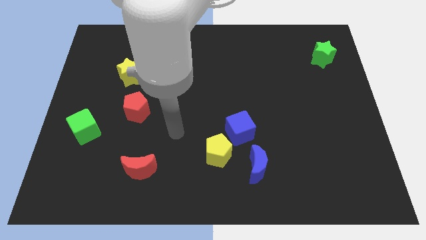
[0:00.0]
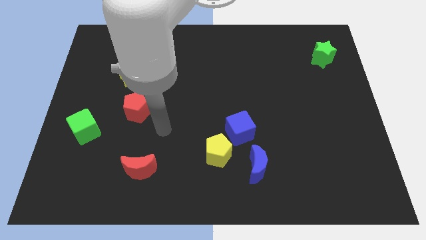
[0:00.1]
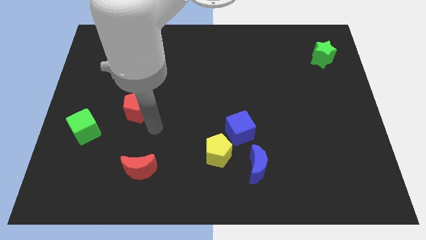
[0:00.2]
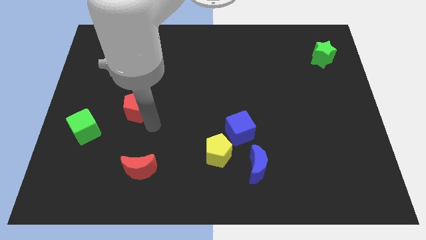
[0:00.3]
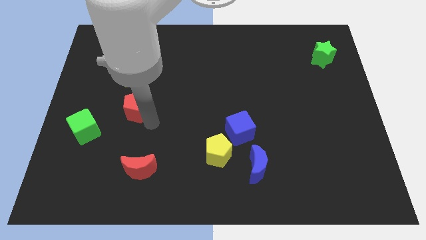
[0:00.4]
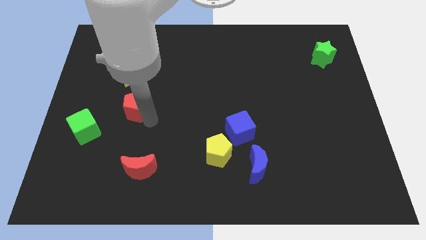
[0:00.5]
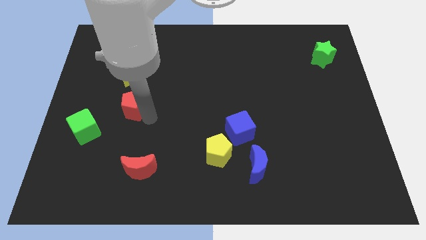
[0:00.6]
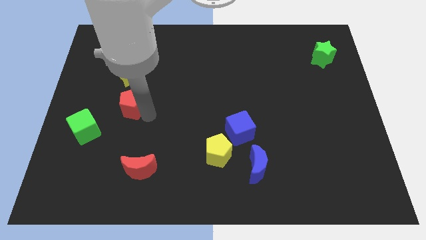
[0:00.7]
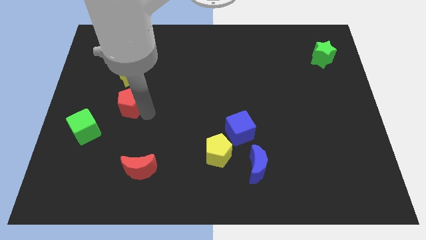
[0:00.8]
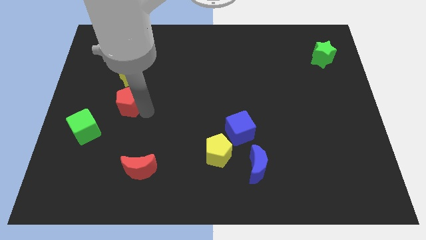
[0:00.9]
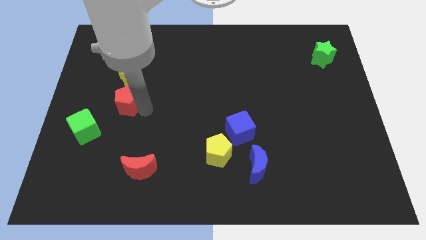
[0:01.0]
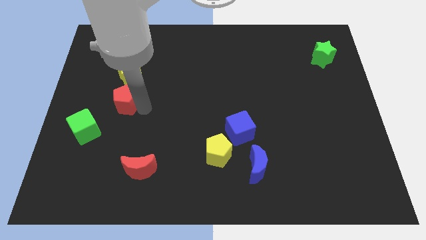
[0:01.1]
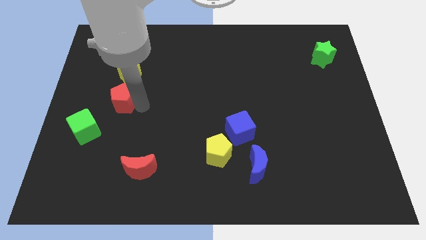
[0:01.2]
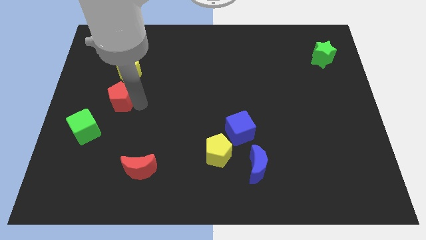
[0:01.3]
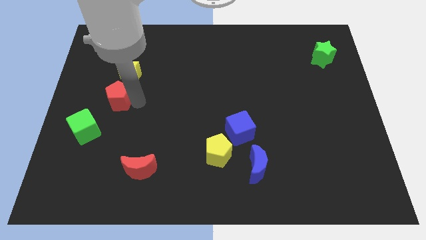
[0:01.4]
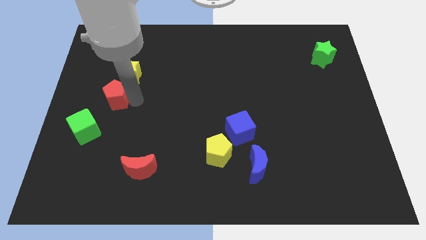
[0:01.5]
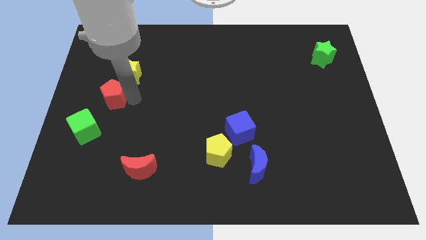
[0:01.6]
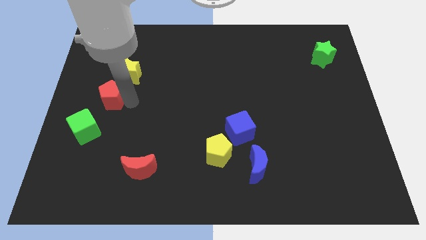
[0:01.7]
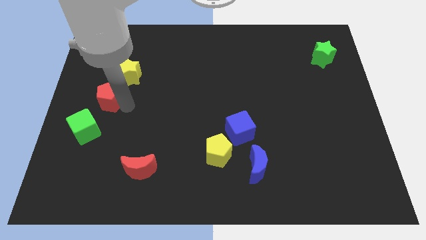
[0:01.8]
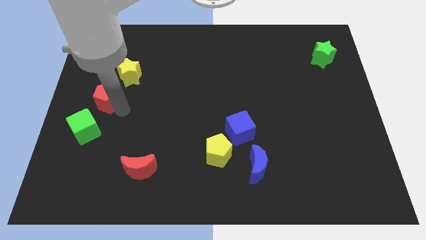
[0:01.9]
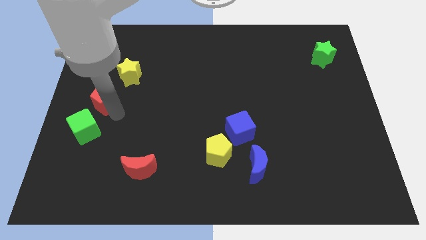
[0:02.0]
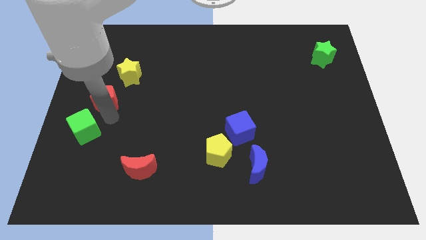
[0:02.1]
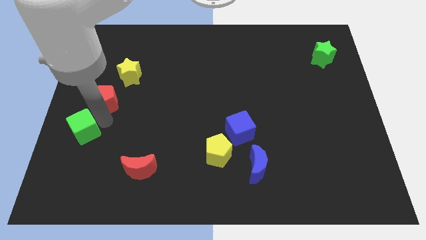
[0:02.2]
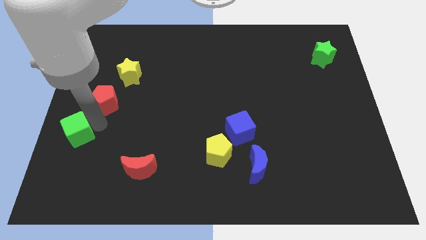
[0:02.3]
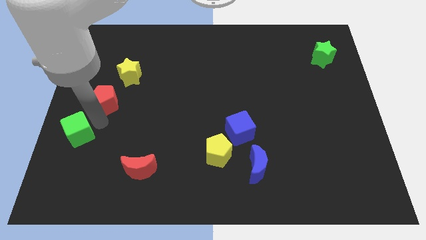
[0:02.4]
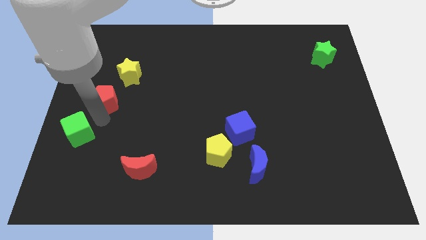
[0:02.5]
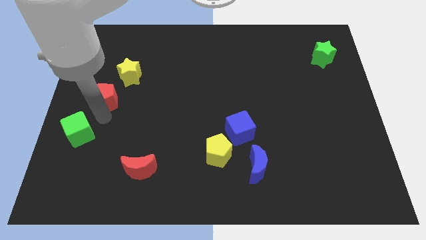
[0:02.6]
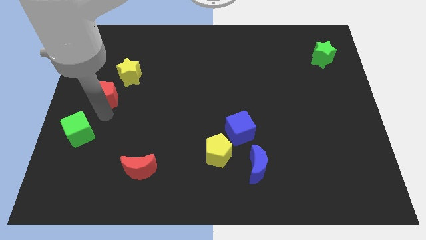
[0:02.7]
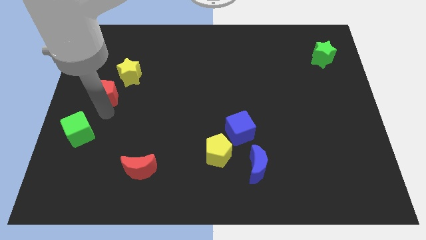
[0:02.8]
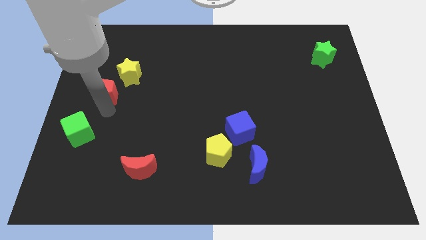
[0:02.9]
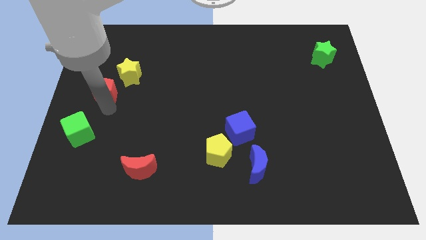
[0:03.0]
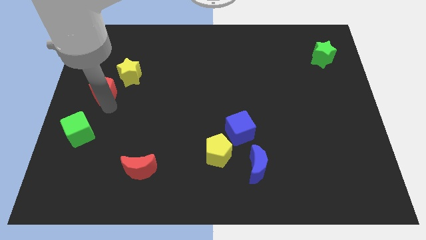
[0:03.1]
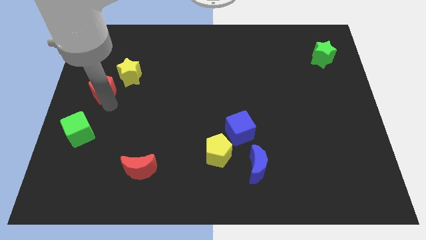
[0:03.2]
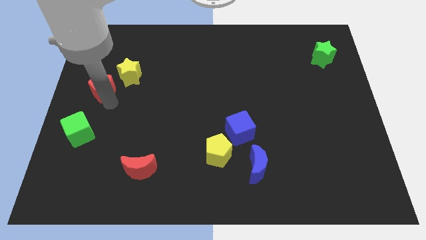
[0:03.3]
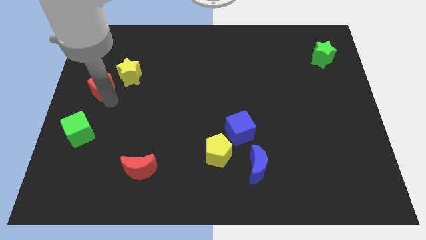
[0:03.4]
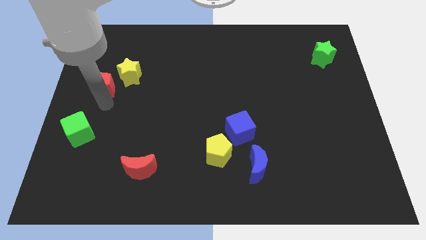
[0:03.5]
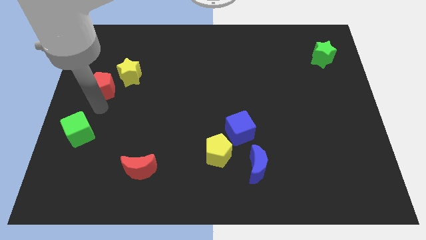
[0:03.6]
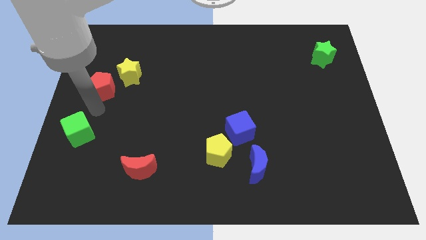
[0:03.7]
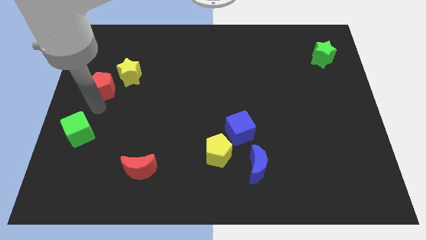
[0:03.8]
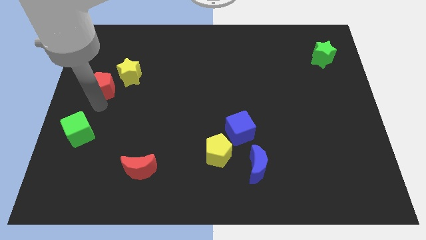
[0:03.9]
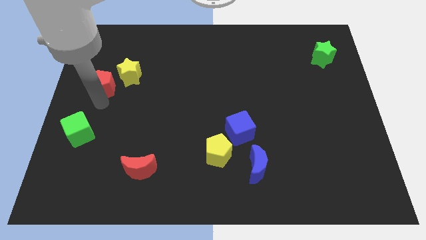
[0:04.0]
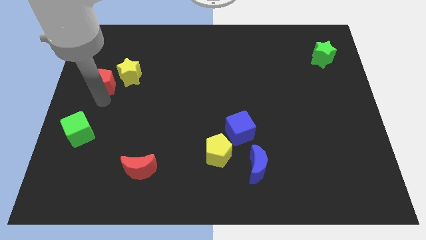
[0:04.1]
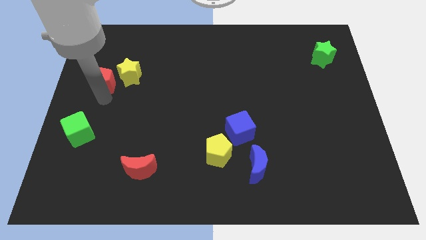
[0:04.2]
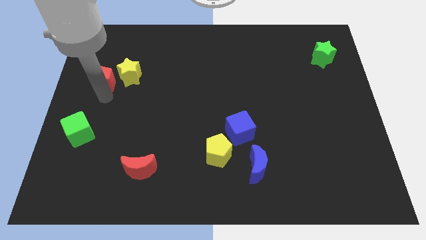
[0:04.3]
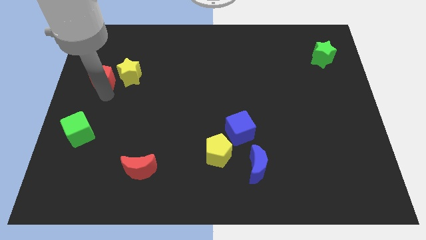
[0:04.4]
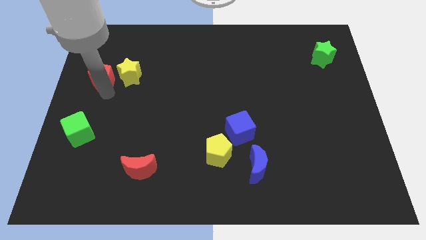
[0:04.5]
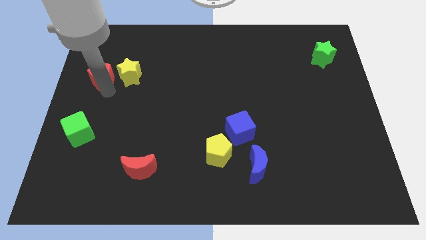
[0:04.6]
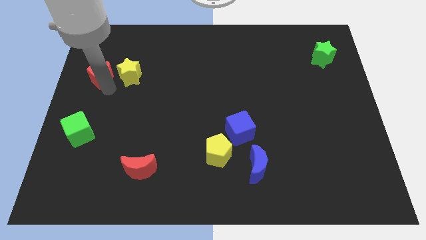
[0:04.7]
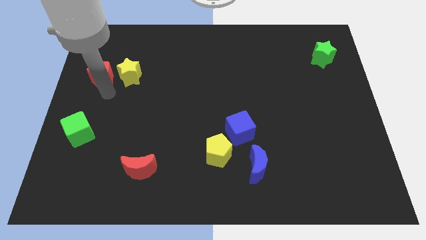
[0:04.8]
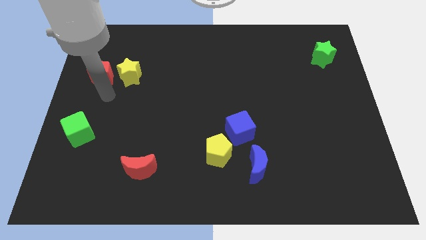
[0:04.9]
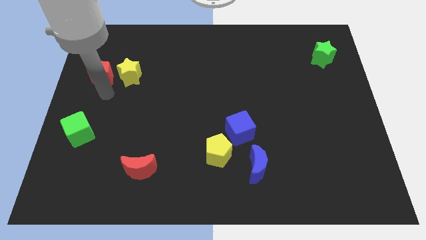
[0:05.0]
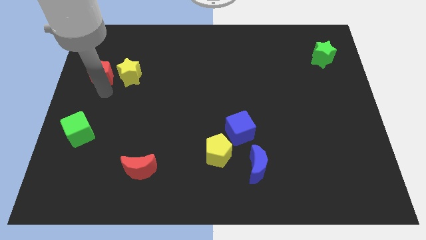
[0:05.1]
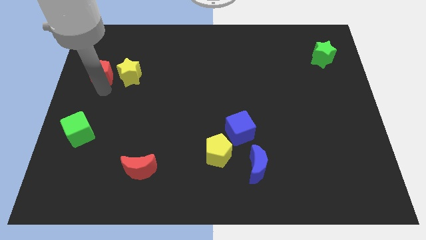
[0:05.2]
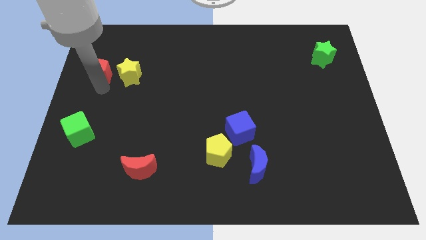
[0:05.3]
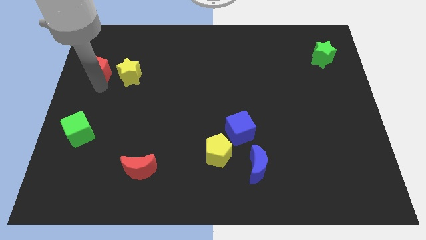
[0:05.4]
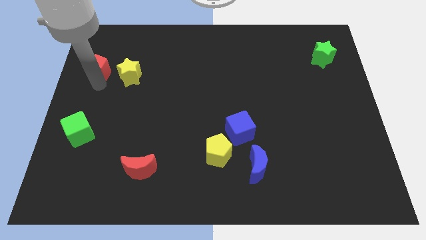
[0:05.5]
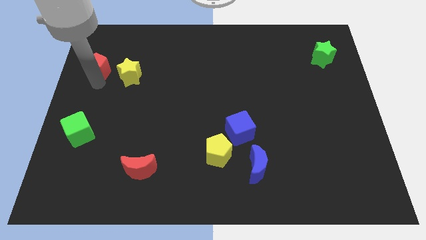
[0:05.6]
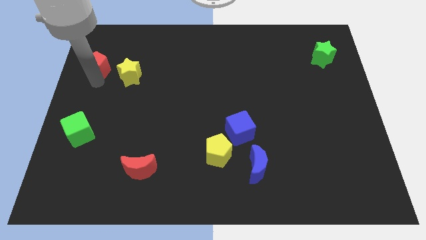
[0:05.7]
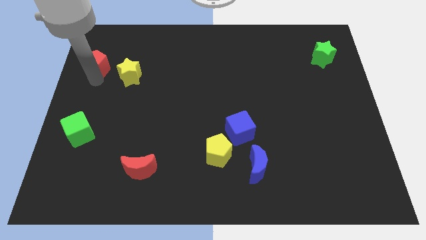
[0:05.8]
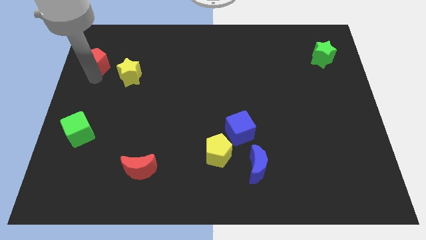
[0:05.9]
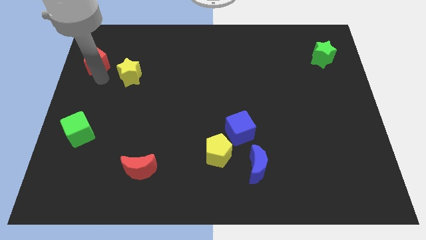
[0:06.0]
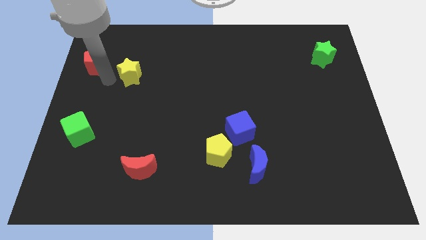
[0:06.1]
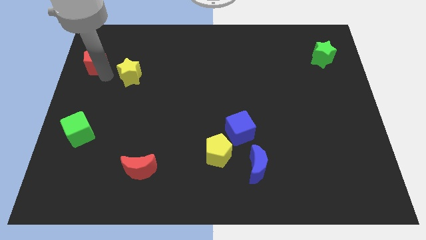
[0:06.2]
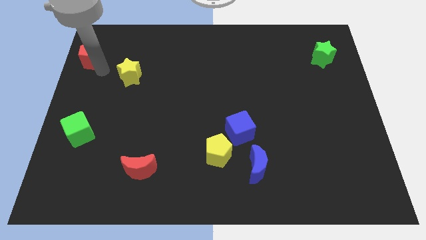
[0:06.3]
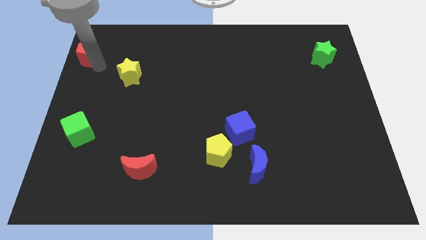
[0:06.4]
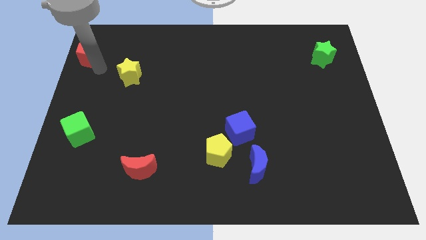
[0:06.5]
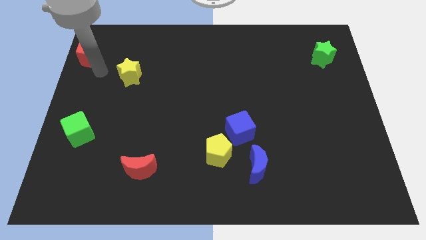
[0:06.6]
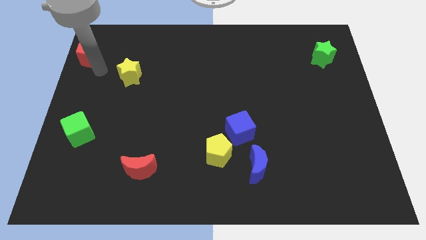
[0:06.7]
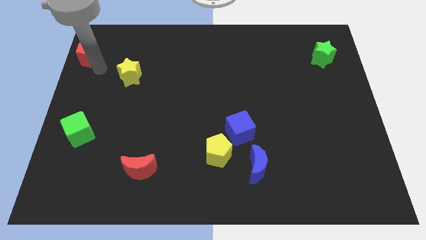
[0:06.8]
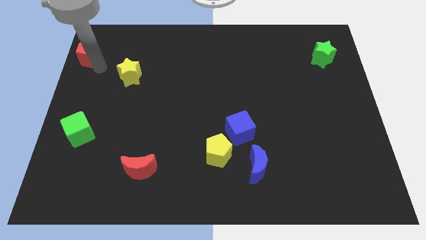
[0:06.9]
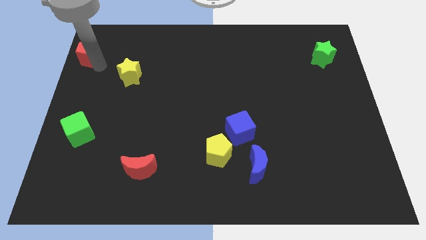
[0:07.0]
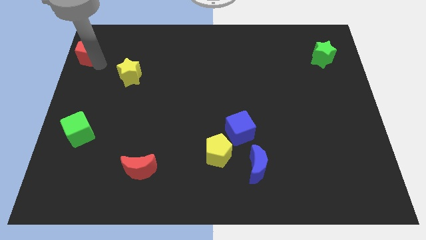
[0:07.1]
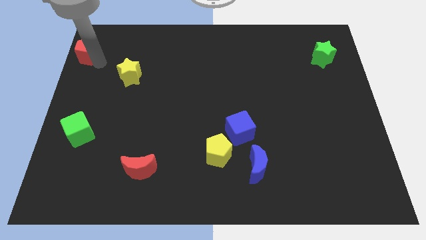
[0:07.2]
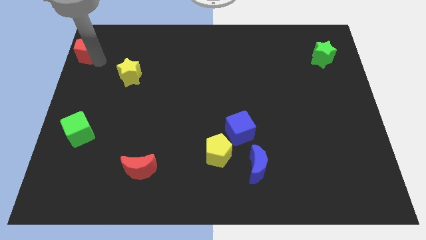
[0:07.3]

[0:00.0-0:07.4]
move the red pentagon to the upper left corner

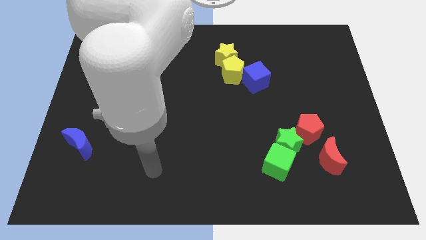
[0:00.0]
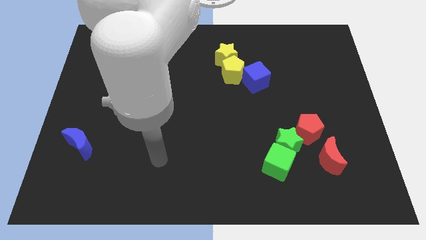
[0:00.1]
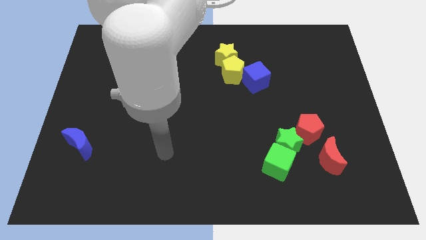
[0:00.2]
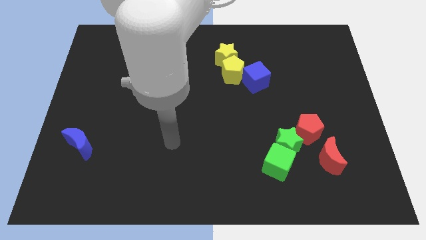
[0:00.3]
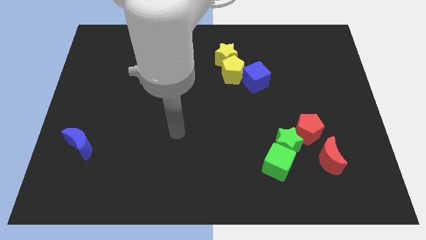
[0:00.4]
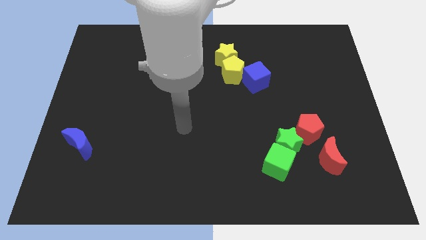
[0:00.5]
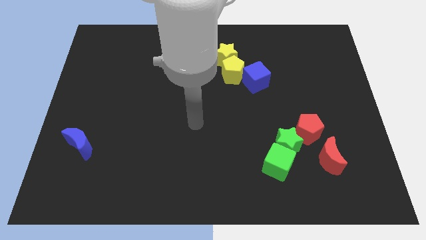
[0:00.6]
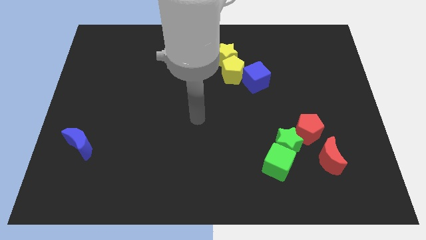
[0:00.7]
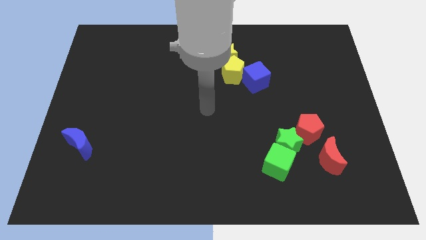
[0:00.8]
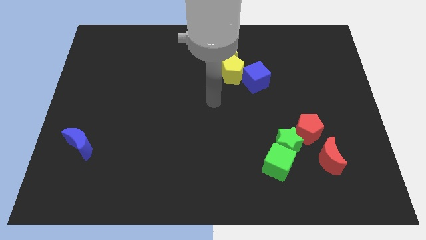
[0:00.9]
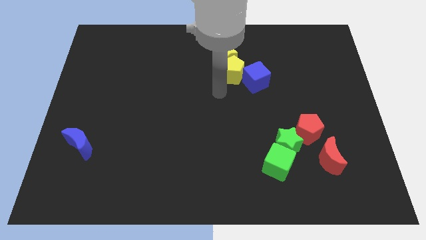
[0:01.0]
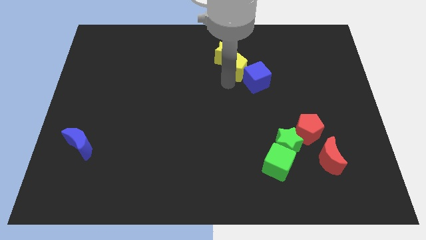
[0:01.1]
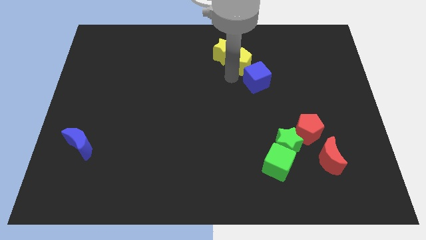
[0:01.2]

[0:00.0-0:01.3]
move the yellow star to the top side
